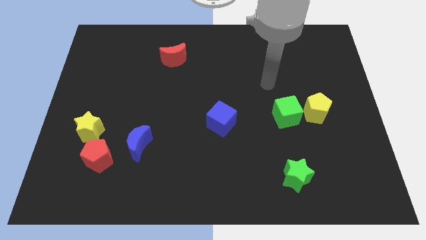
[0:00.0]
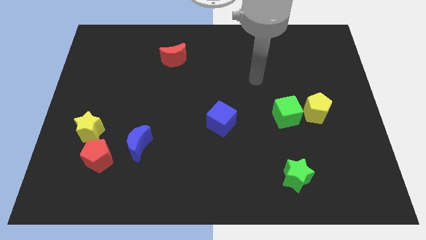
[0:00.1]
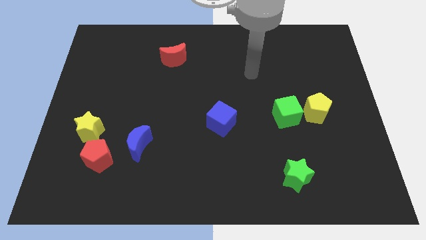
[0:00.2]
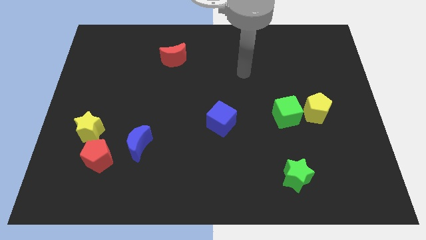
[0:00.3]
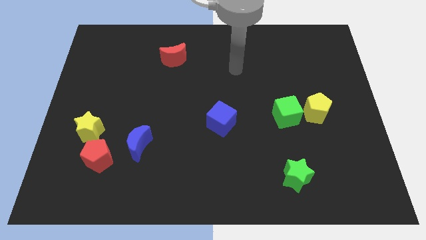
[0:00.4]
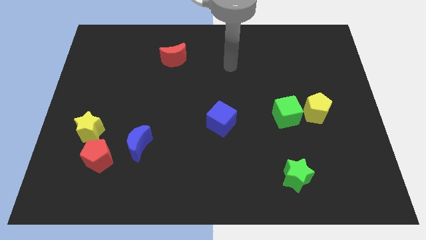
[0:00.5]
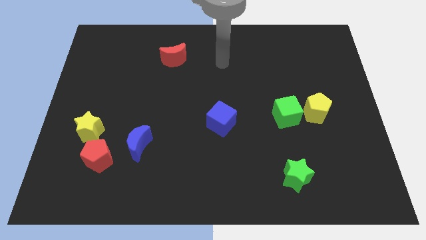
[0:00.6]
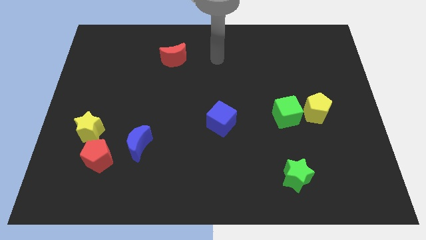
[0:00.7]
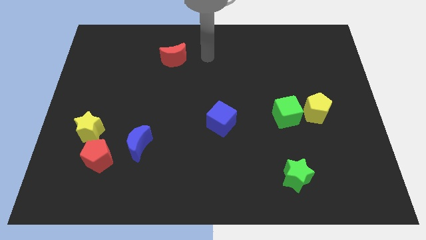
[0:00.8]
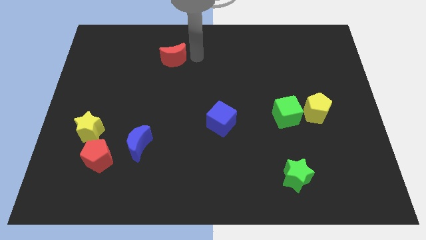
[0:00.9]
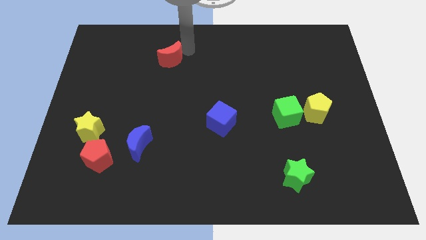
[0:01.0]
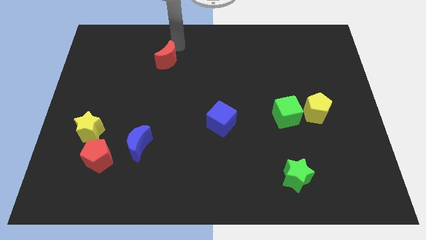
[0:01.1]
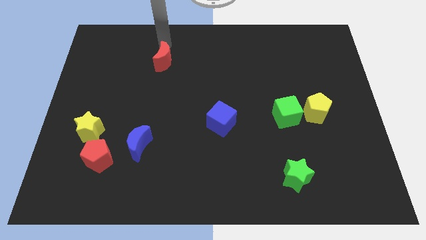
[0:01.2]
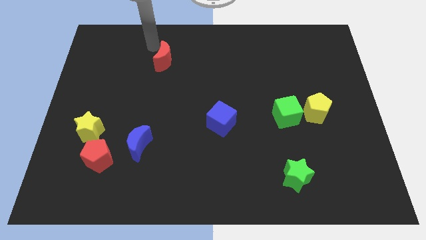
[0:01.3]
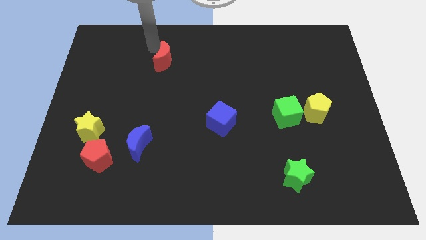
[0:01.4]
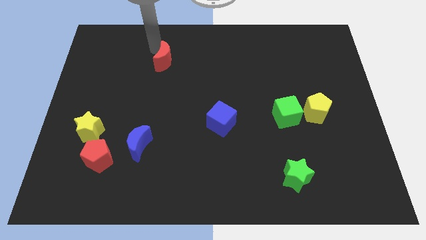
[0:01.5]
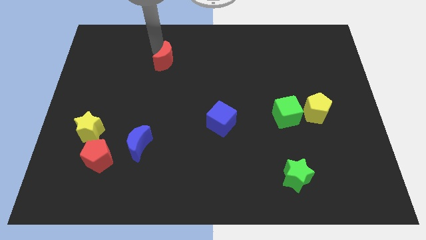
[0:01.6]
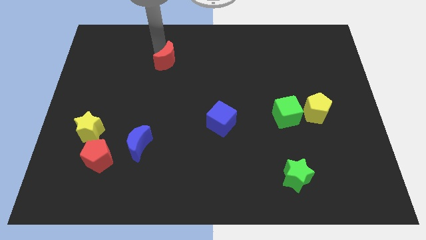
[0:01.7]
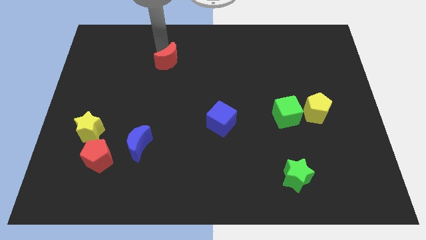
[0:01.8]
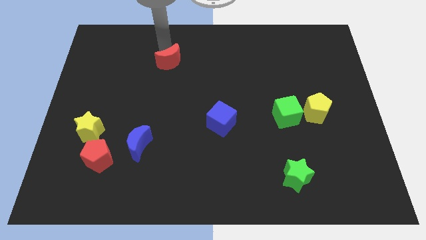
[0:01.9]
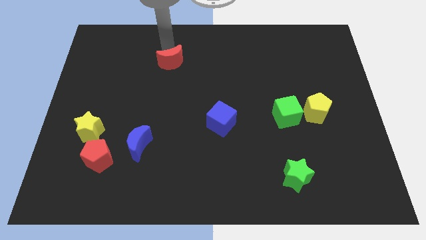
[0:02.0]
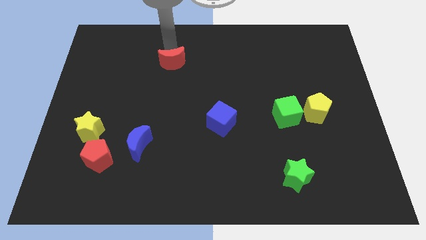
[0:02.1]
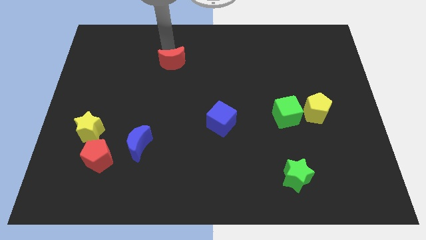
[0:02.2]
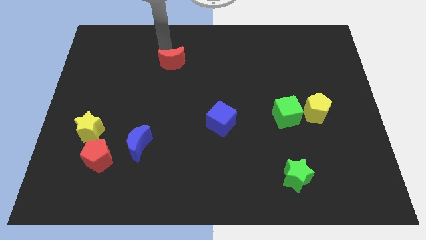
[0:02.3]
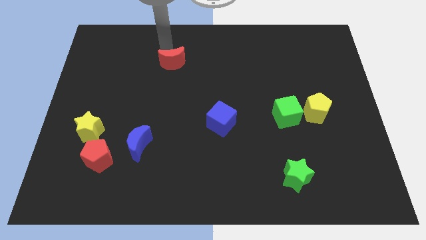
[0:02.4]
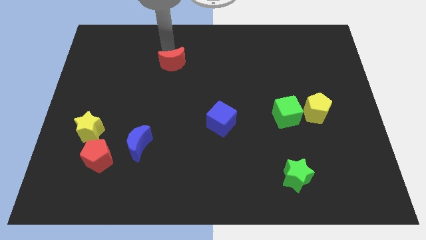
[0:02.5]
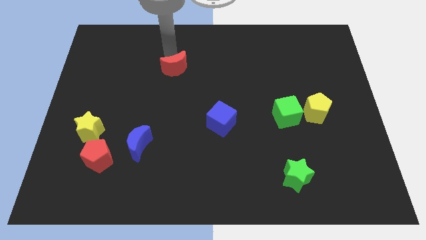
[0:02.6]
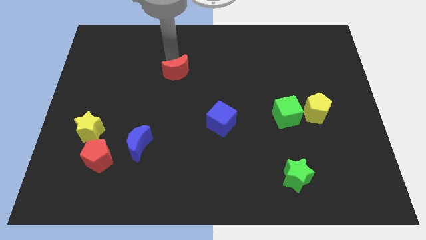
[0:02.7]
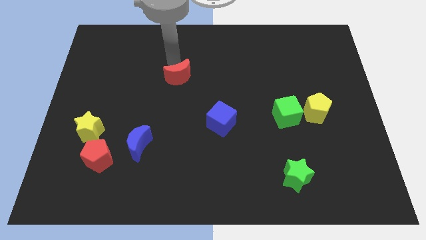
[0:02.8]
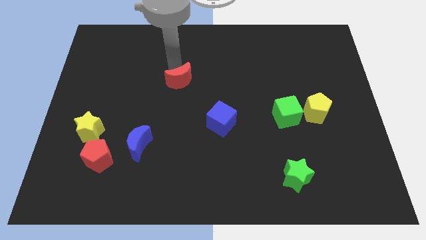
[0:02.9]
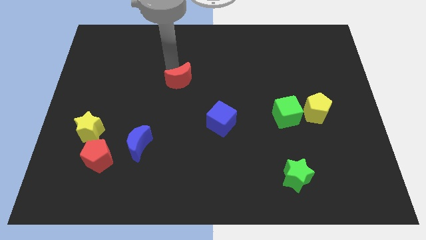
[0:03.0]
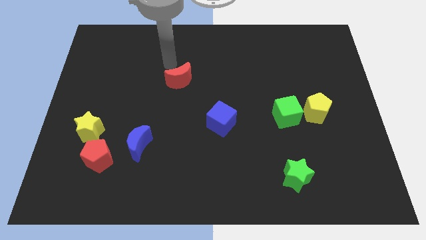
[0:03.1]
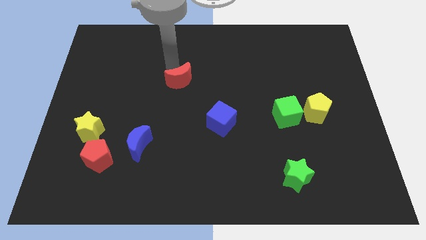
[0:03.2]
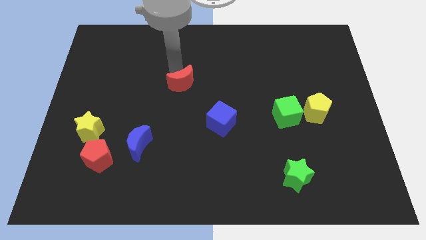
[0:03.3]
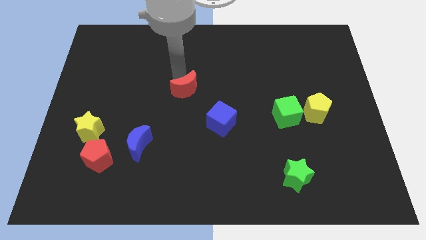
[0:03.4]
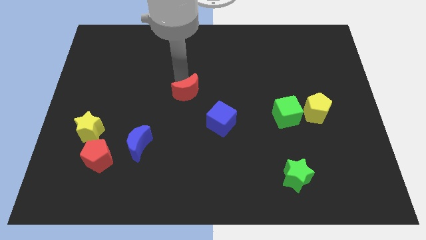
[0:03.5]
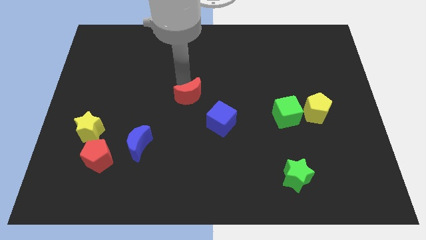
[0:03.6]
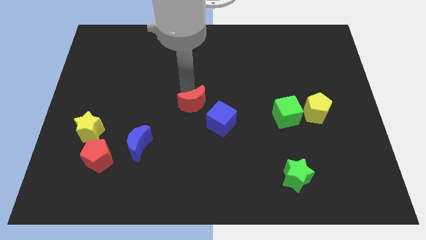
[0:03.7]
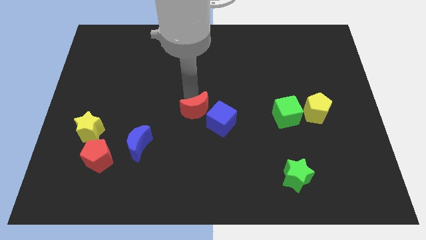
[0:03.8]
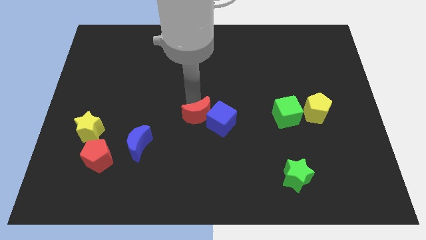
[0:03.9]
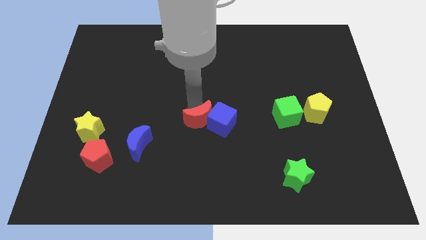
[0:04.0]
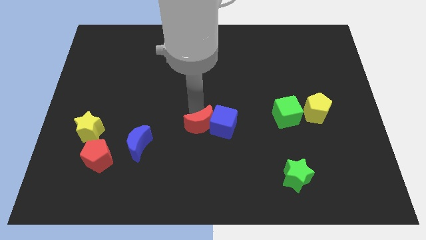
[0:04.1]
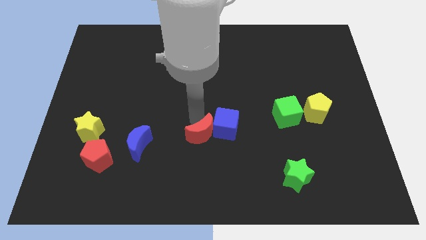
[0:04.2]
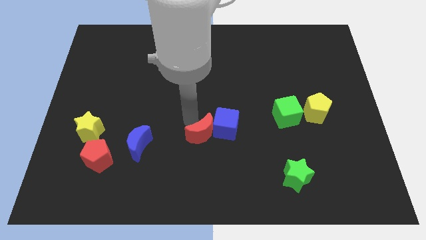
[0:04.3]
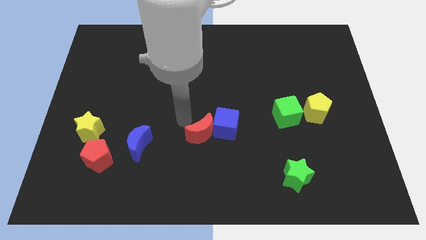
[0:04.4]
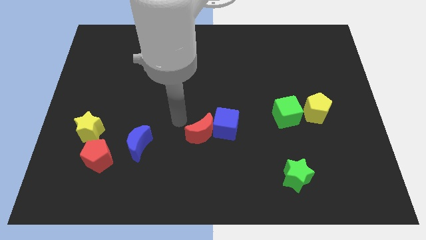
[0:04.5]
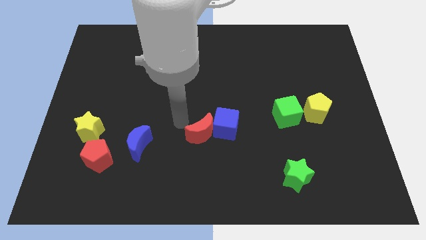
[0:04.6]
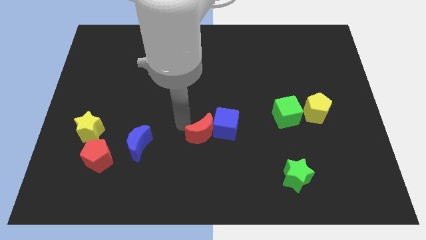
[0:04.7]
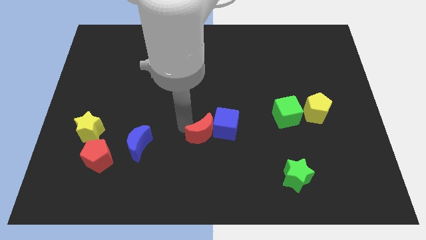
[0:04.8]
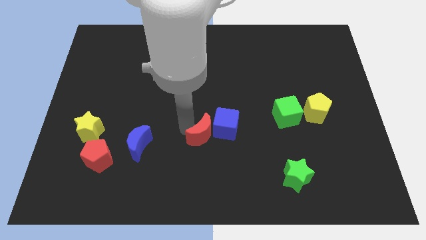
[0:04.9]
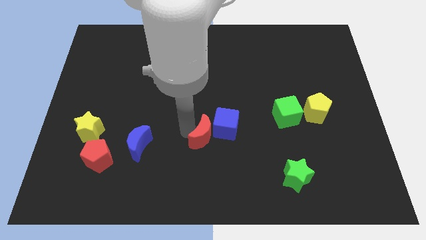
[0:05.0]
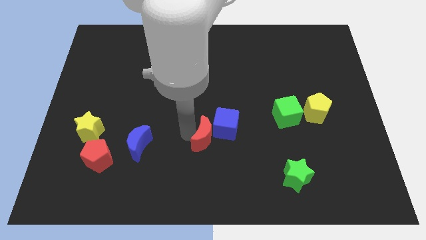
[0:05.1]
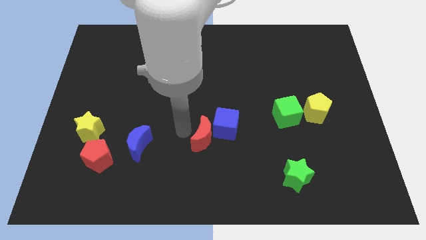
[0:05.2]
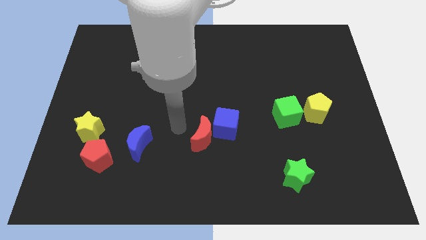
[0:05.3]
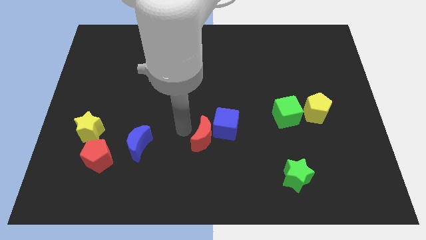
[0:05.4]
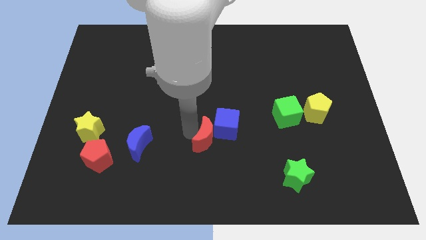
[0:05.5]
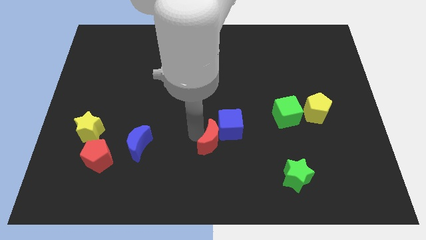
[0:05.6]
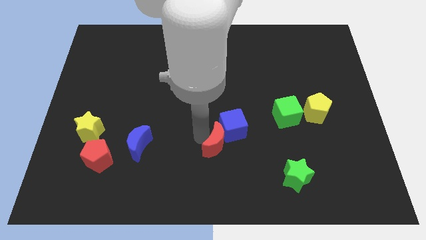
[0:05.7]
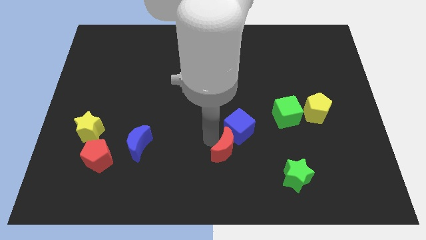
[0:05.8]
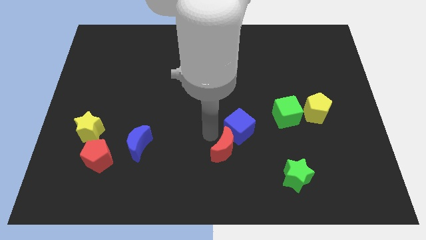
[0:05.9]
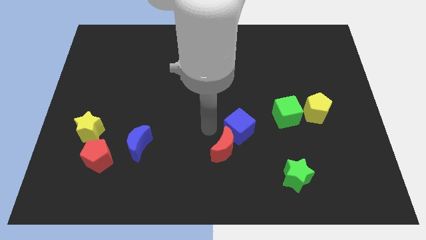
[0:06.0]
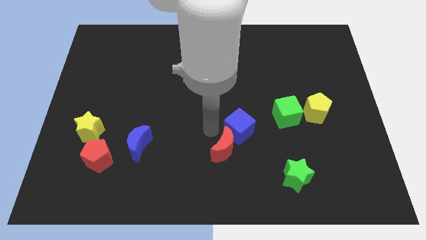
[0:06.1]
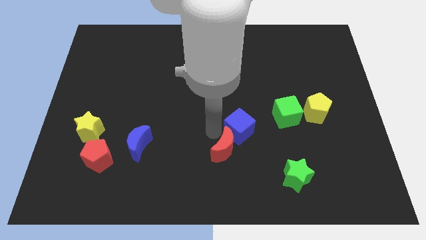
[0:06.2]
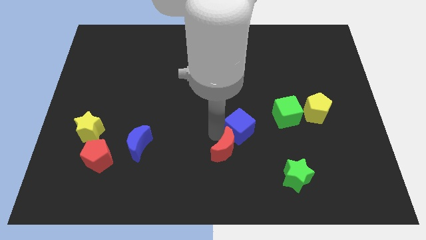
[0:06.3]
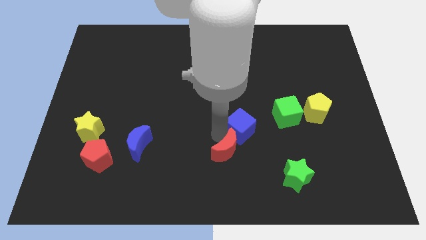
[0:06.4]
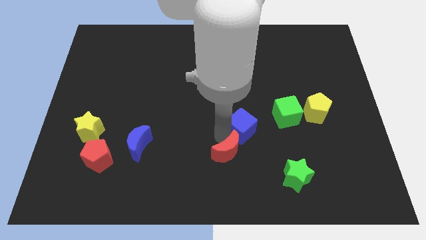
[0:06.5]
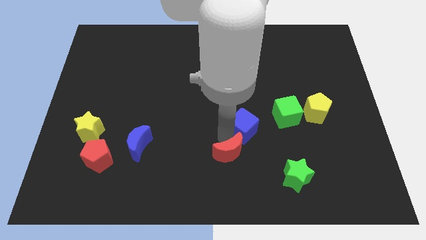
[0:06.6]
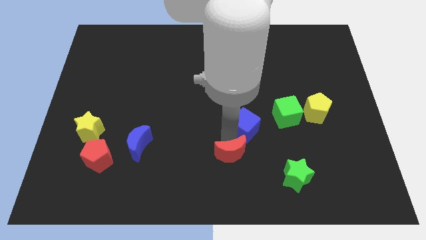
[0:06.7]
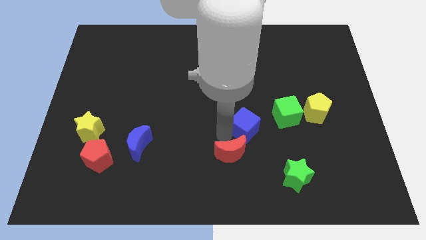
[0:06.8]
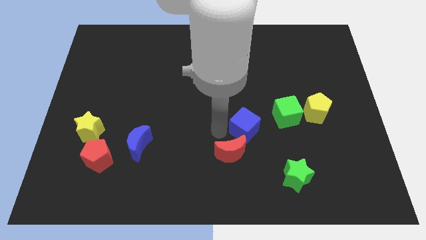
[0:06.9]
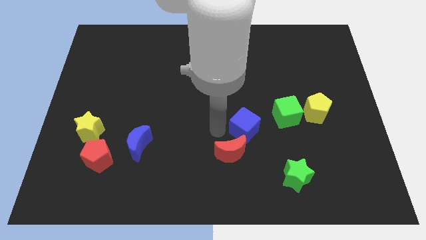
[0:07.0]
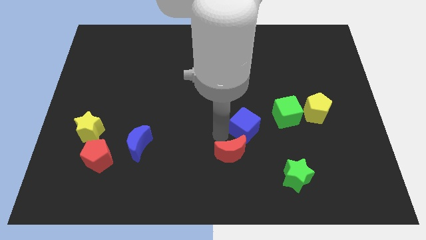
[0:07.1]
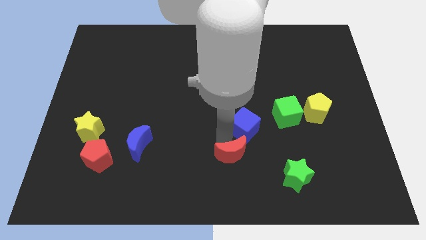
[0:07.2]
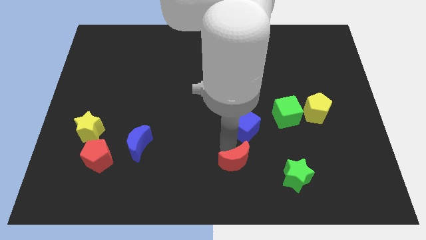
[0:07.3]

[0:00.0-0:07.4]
move the red moon just left of the green star
